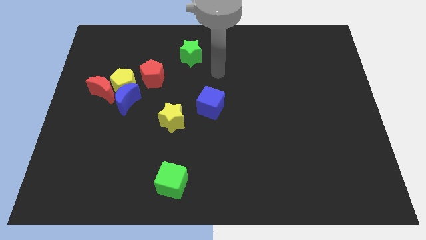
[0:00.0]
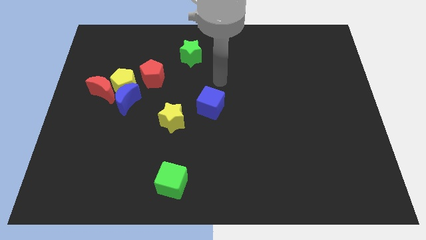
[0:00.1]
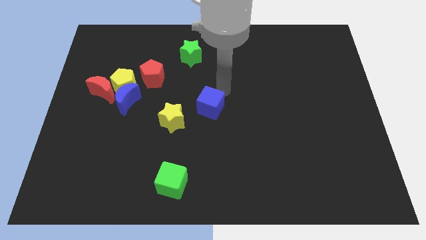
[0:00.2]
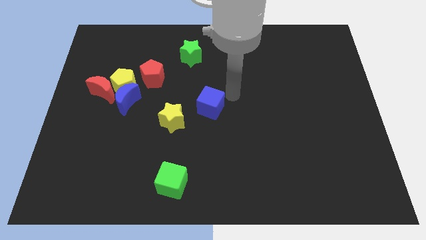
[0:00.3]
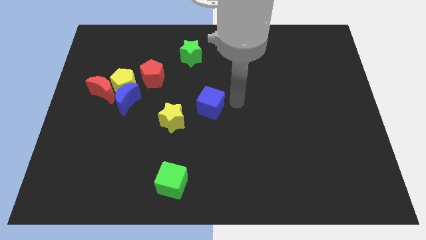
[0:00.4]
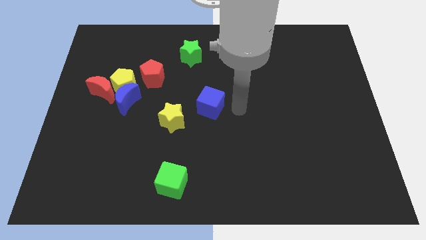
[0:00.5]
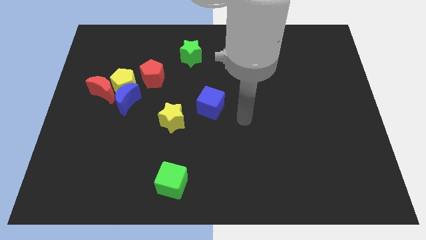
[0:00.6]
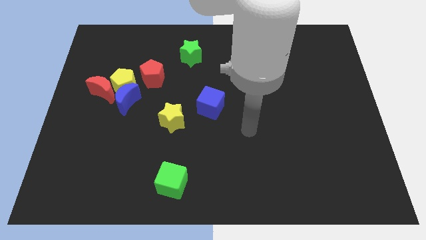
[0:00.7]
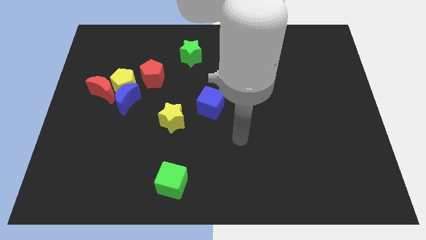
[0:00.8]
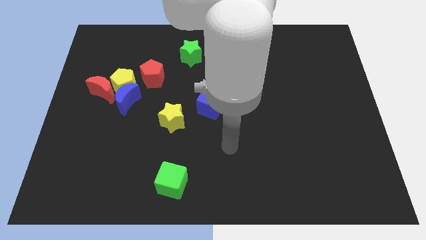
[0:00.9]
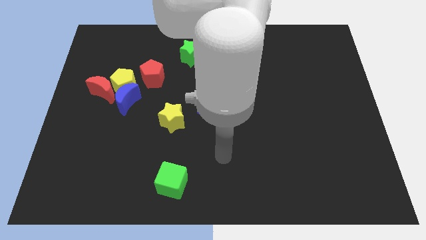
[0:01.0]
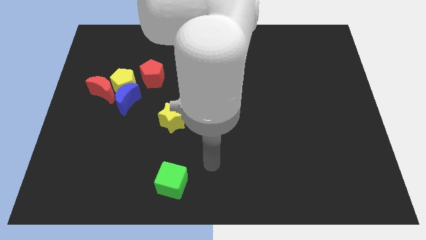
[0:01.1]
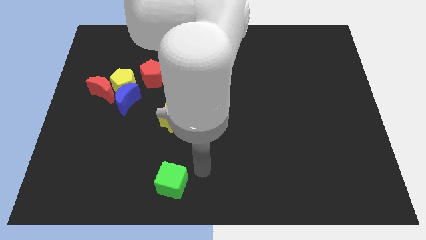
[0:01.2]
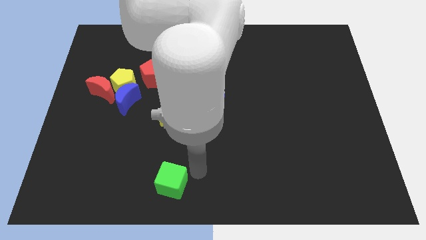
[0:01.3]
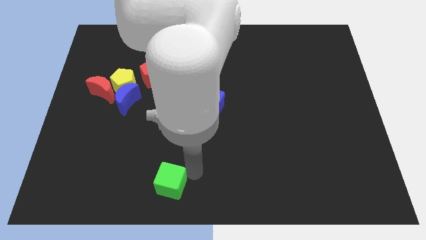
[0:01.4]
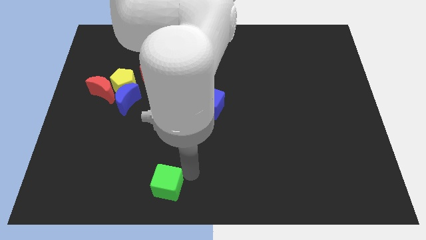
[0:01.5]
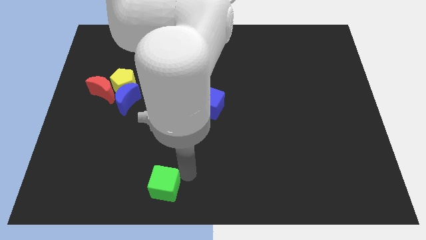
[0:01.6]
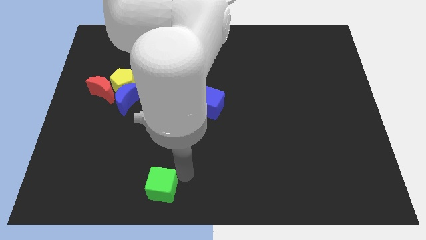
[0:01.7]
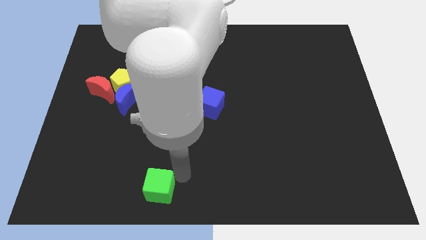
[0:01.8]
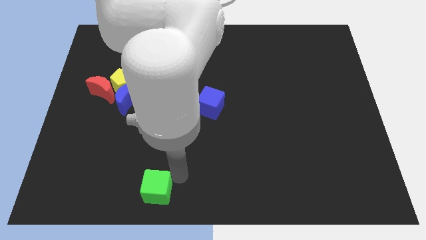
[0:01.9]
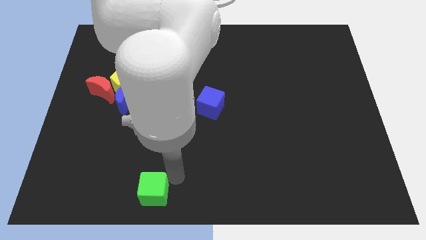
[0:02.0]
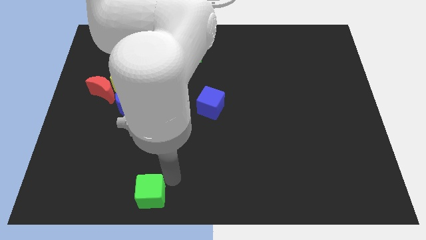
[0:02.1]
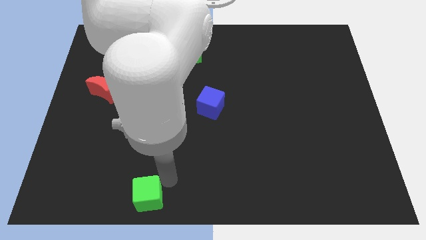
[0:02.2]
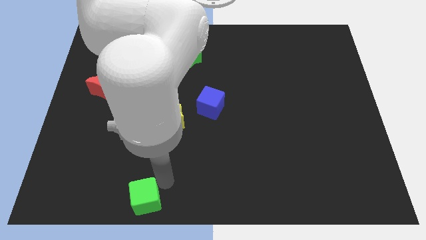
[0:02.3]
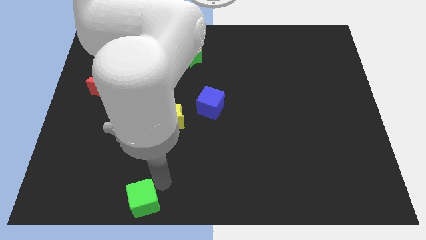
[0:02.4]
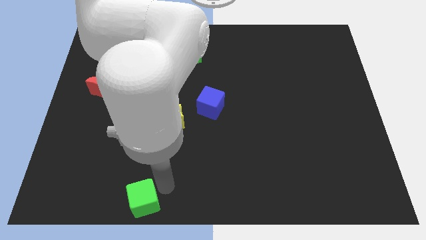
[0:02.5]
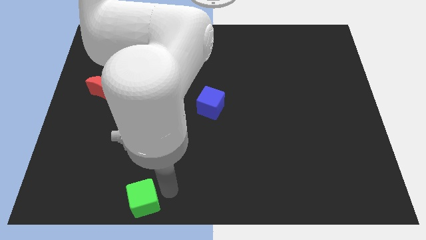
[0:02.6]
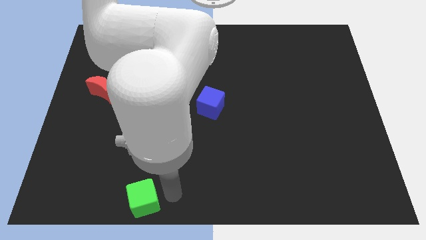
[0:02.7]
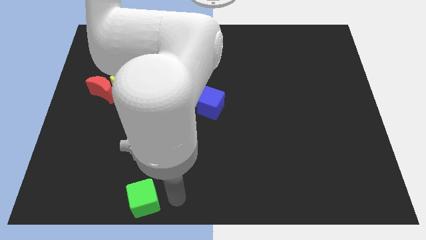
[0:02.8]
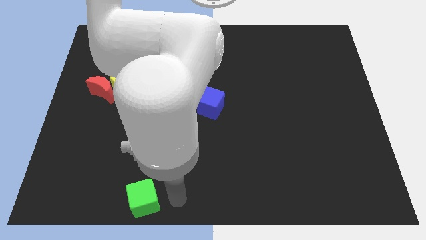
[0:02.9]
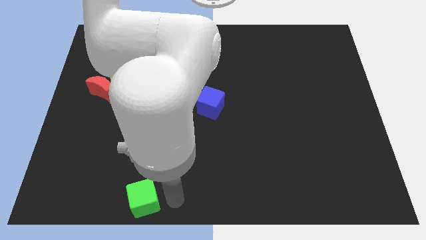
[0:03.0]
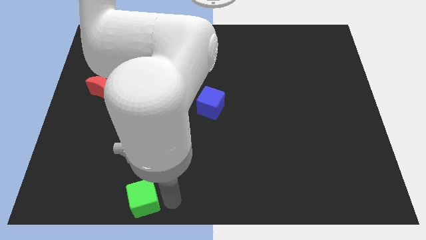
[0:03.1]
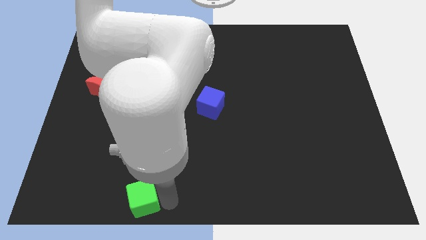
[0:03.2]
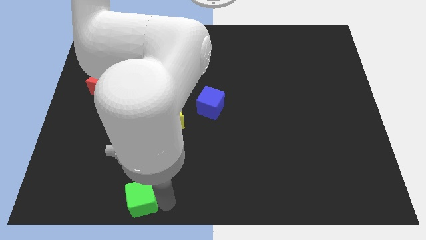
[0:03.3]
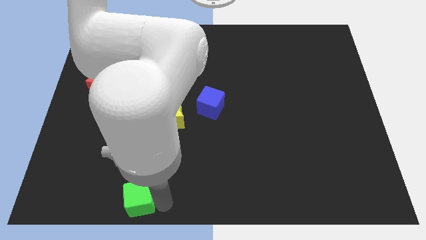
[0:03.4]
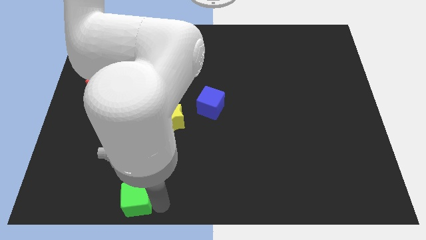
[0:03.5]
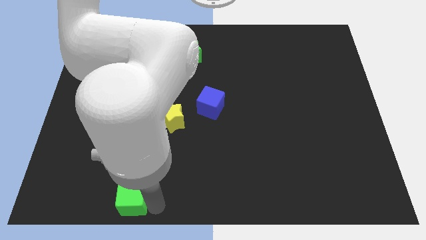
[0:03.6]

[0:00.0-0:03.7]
slightly push the green cube to the left

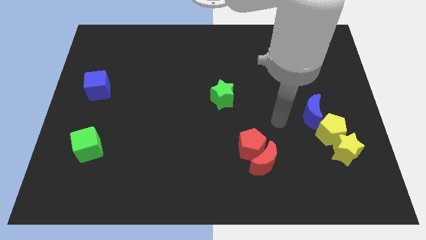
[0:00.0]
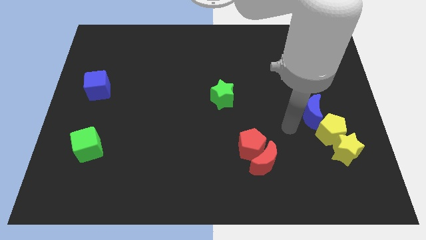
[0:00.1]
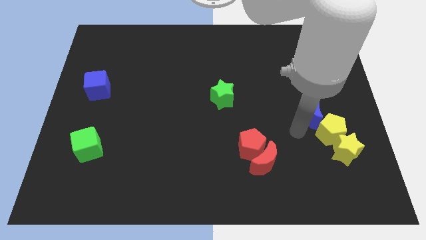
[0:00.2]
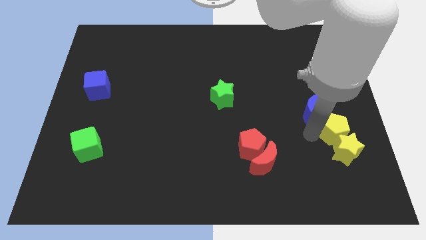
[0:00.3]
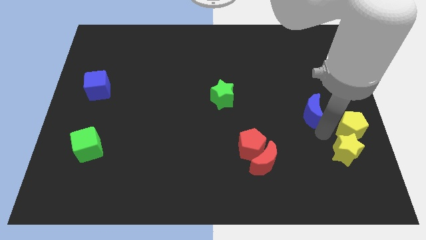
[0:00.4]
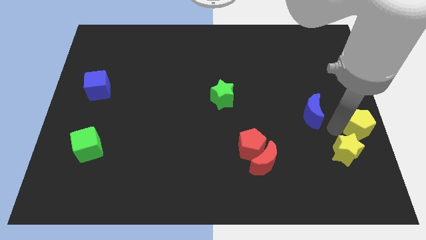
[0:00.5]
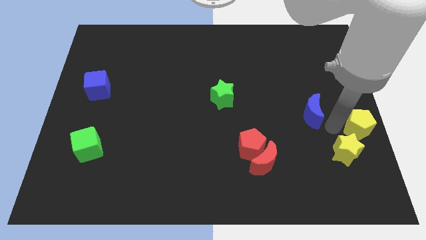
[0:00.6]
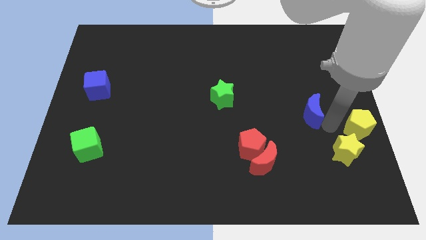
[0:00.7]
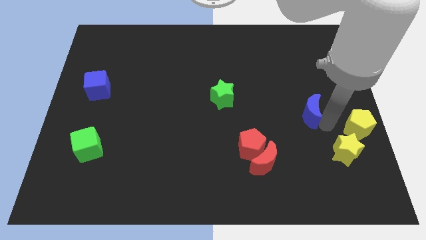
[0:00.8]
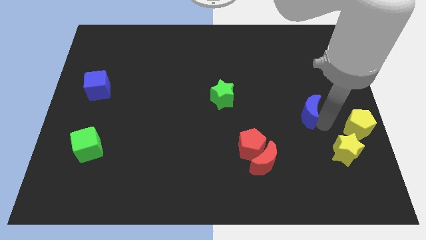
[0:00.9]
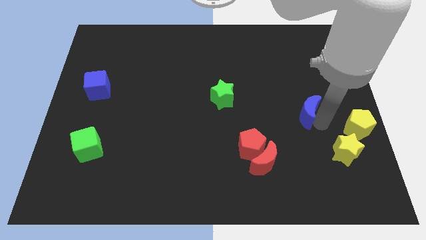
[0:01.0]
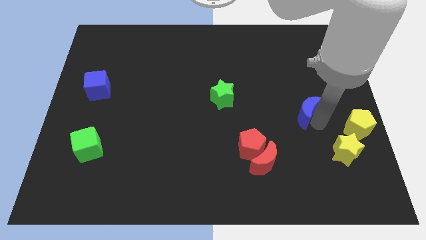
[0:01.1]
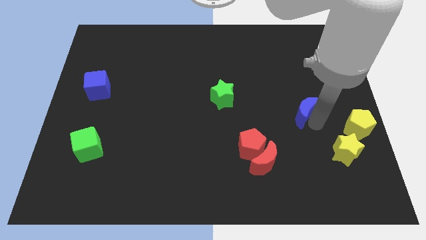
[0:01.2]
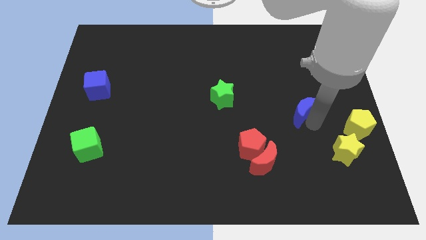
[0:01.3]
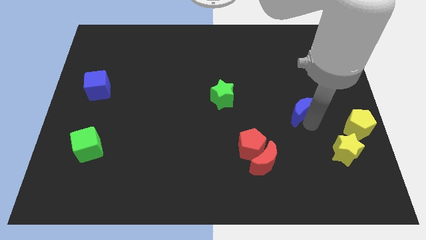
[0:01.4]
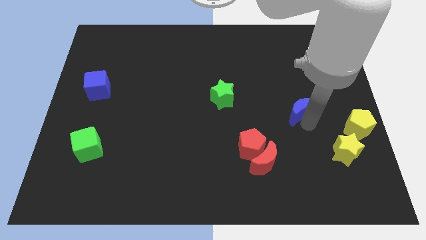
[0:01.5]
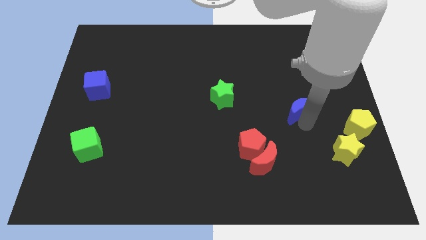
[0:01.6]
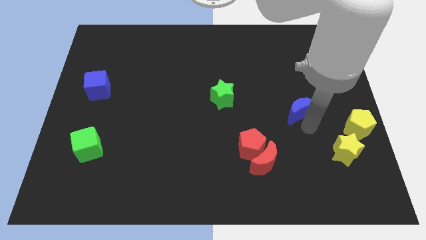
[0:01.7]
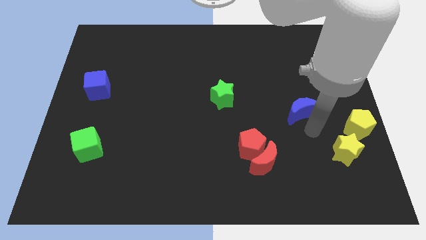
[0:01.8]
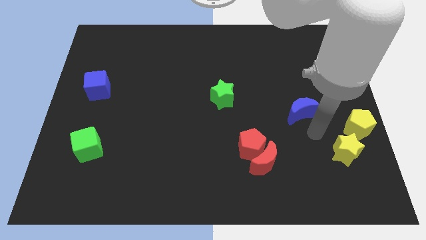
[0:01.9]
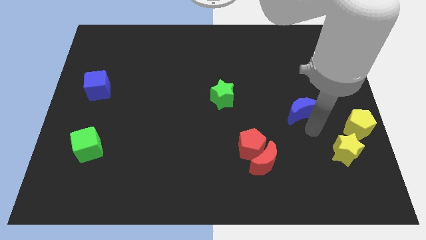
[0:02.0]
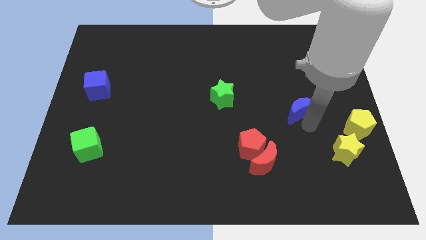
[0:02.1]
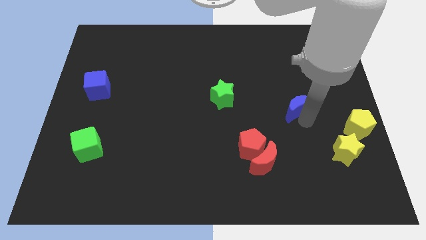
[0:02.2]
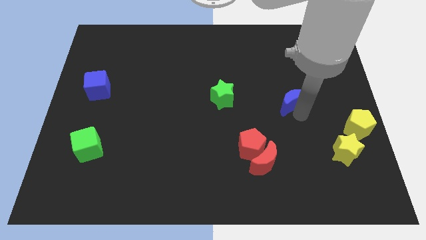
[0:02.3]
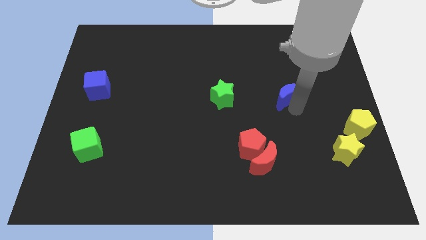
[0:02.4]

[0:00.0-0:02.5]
push the blue moon somewhat up and then to the left

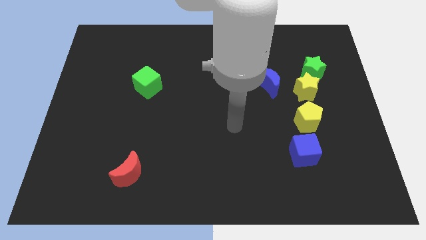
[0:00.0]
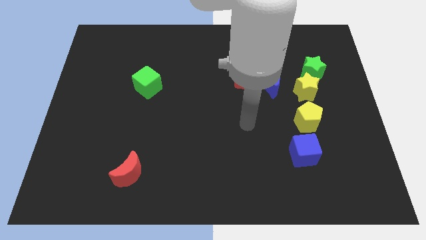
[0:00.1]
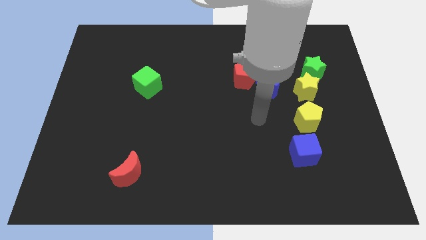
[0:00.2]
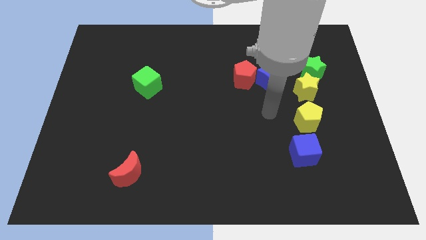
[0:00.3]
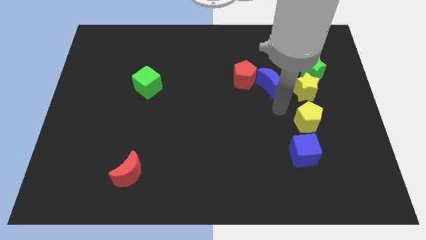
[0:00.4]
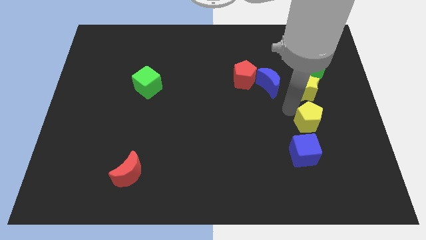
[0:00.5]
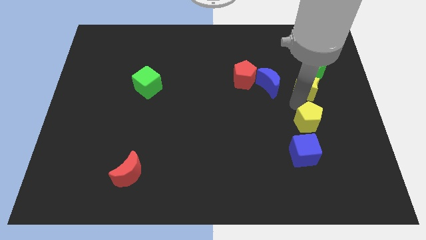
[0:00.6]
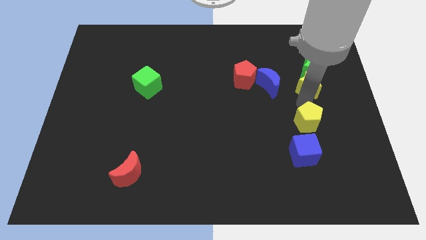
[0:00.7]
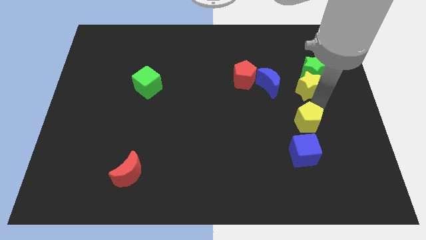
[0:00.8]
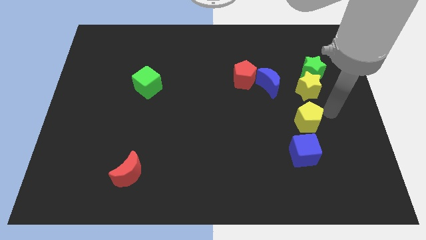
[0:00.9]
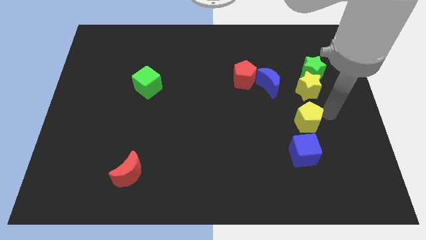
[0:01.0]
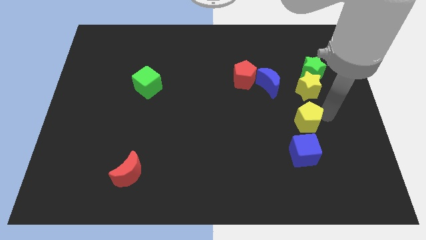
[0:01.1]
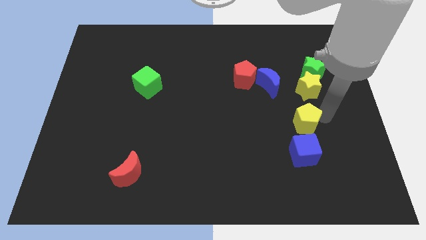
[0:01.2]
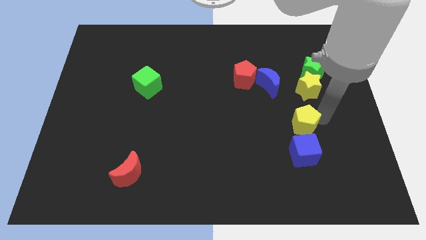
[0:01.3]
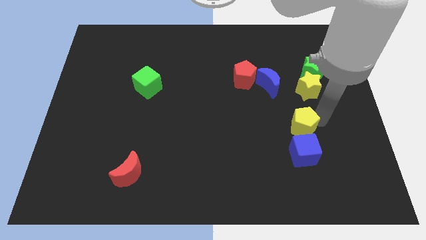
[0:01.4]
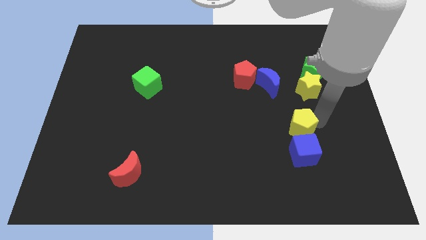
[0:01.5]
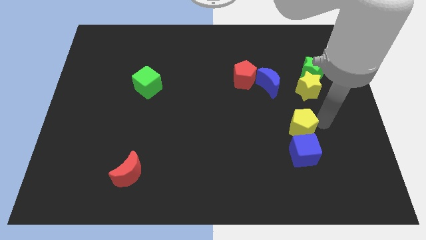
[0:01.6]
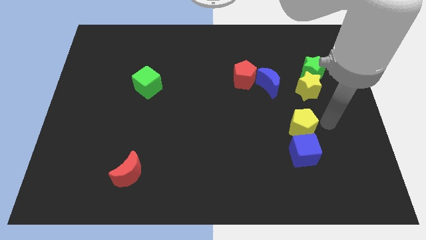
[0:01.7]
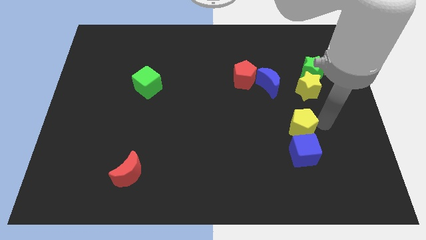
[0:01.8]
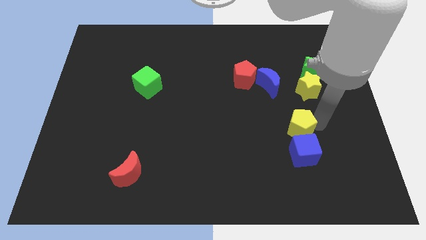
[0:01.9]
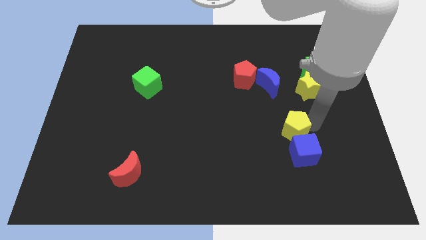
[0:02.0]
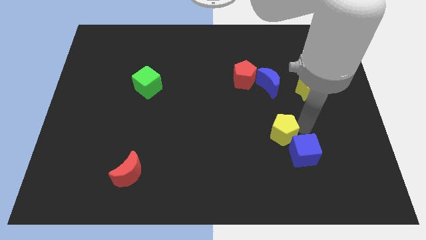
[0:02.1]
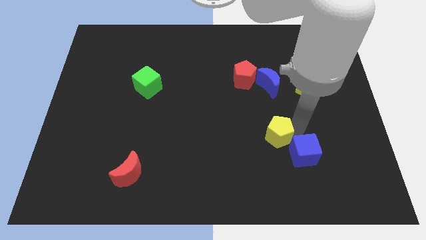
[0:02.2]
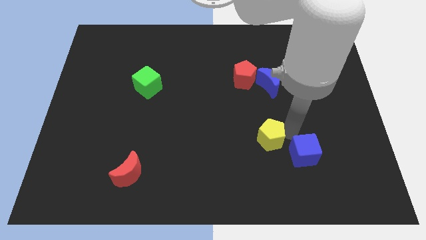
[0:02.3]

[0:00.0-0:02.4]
slide the yellow pentagon slightly left
